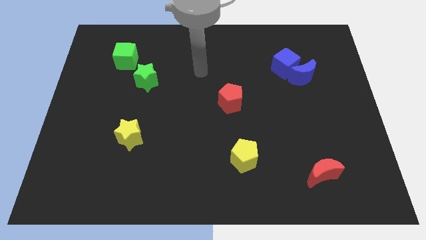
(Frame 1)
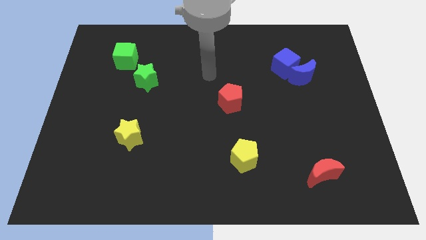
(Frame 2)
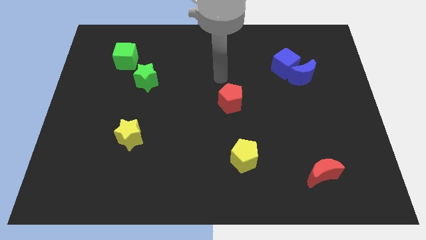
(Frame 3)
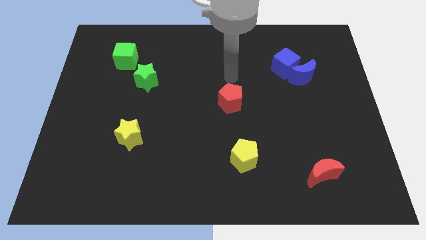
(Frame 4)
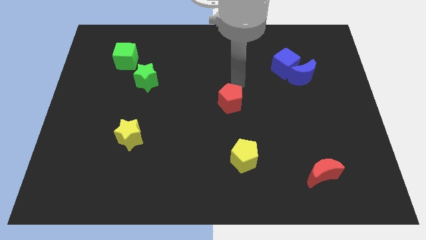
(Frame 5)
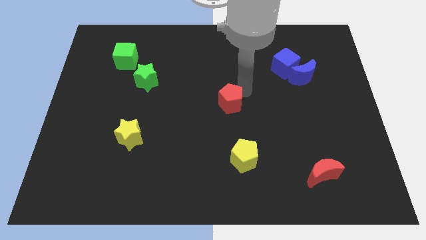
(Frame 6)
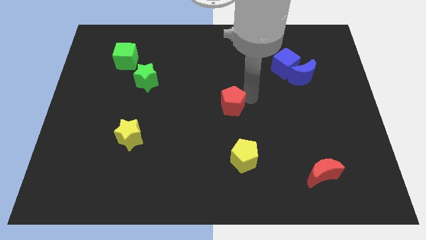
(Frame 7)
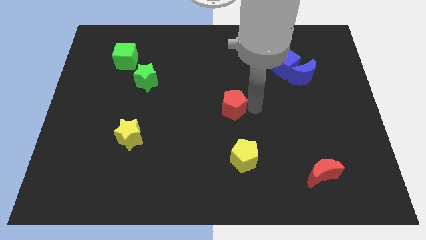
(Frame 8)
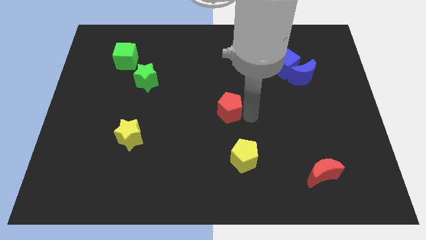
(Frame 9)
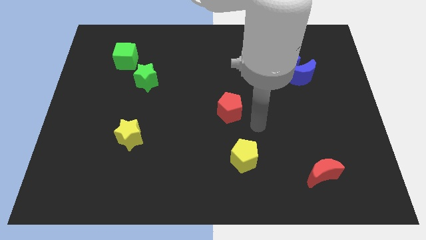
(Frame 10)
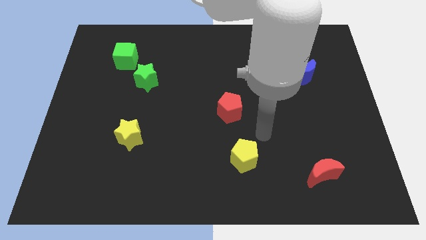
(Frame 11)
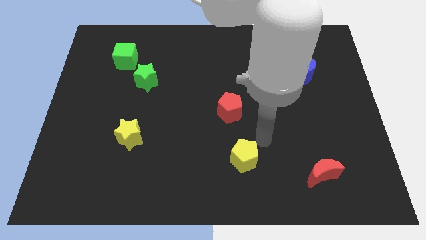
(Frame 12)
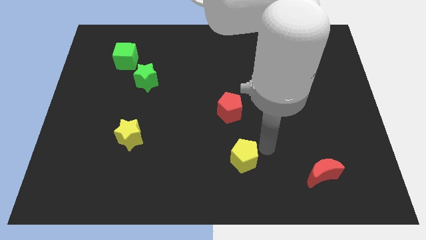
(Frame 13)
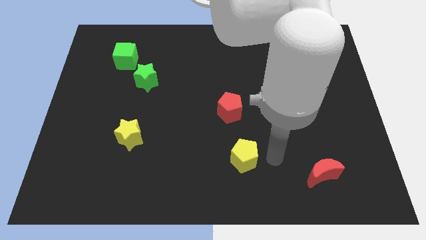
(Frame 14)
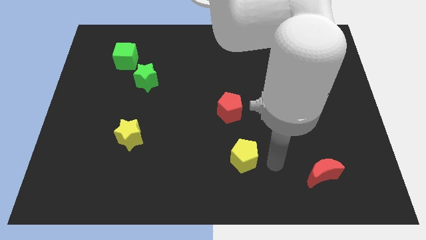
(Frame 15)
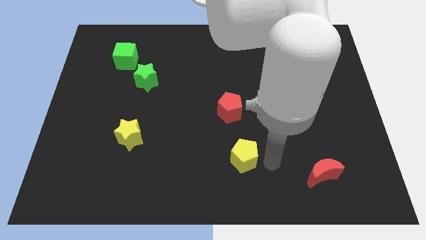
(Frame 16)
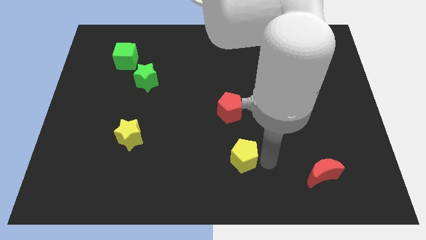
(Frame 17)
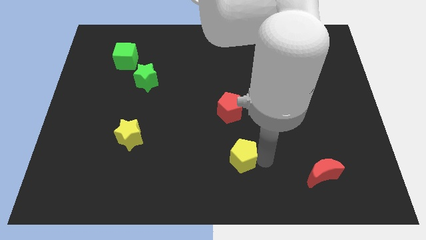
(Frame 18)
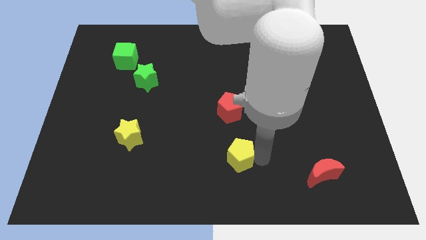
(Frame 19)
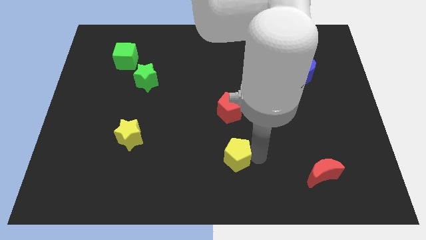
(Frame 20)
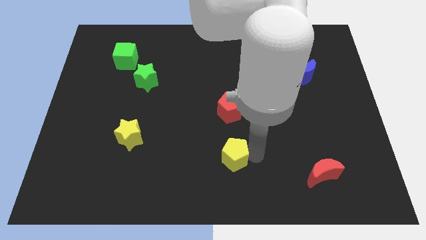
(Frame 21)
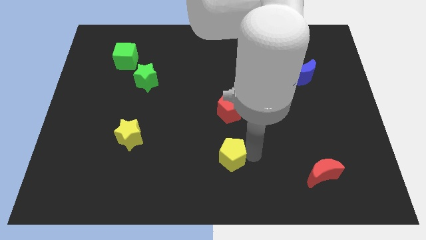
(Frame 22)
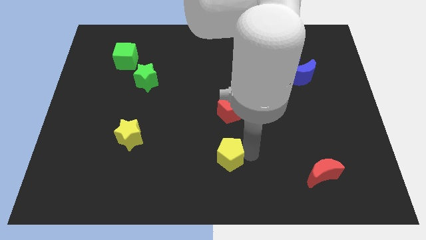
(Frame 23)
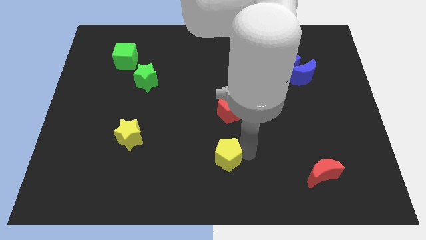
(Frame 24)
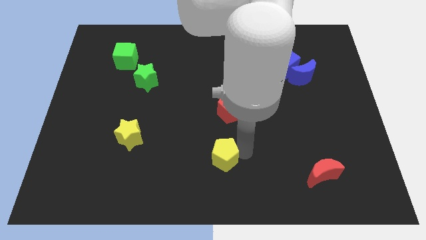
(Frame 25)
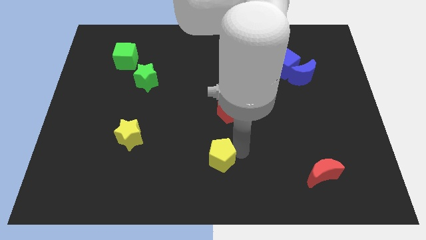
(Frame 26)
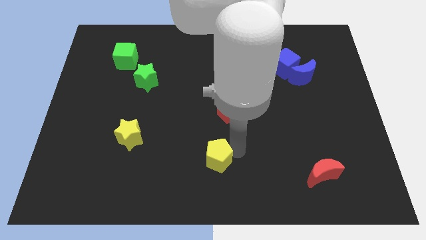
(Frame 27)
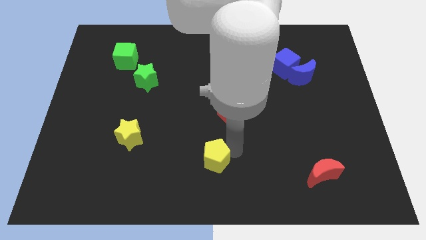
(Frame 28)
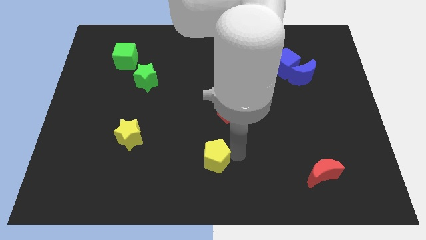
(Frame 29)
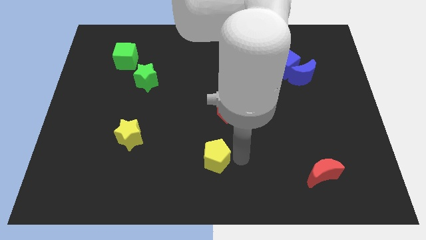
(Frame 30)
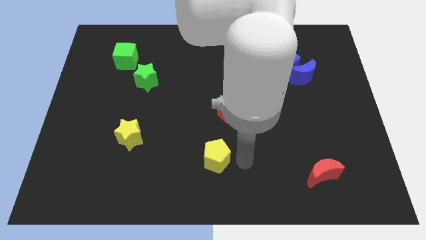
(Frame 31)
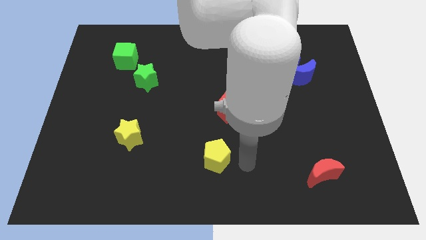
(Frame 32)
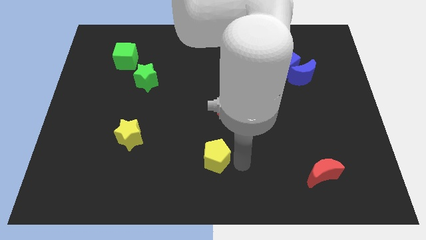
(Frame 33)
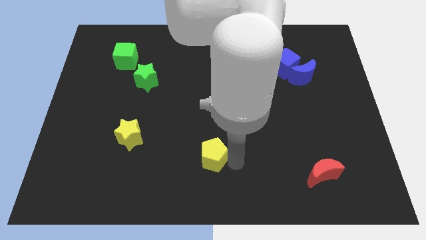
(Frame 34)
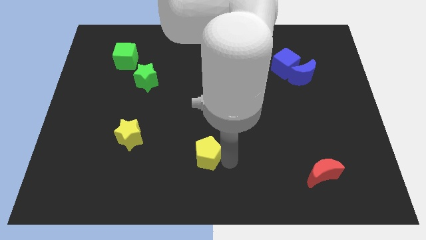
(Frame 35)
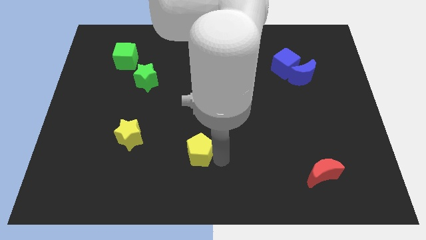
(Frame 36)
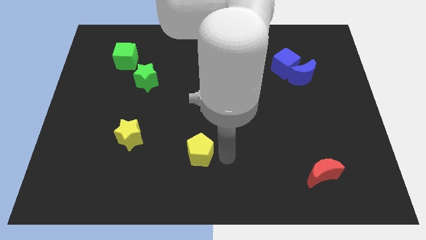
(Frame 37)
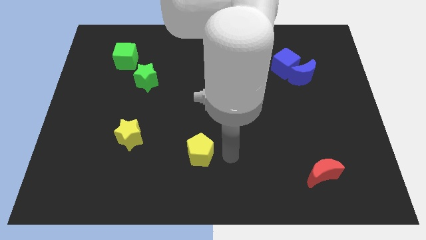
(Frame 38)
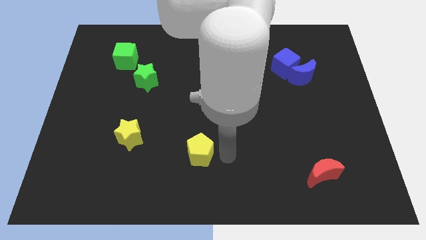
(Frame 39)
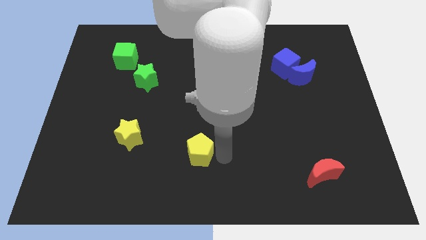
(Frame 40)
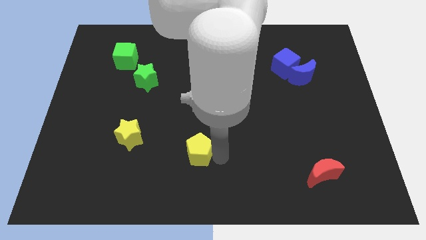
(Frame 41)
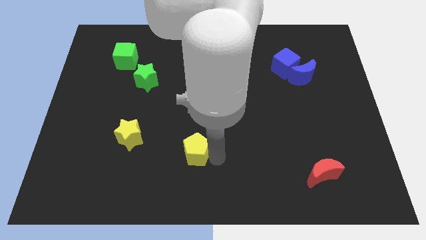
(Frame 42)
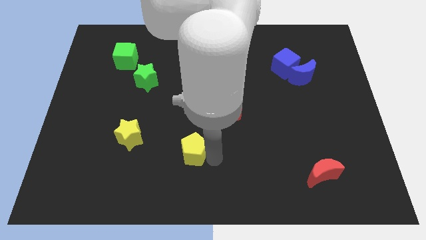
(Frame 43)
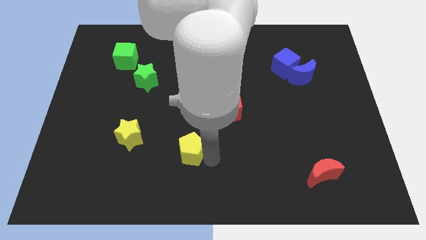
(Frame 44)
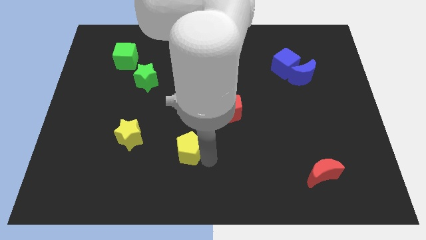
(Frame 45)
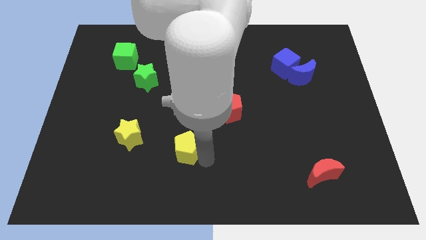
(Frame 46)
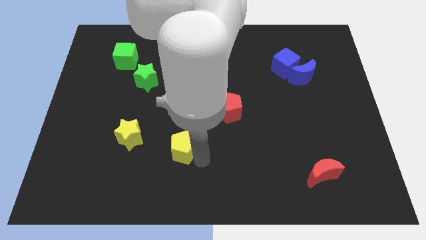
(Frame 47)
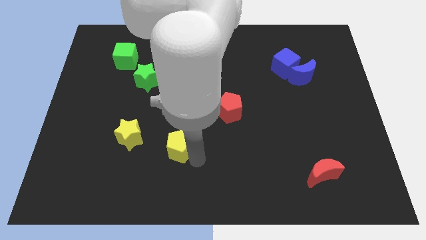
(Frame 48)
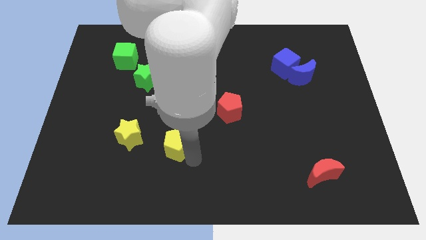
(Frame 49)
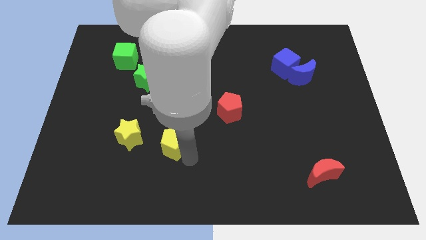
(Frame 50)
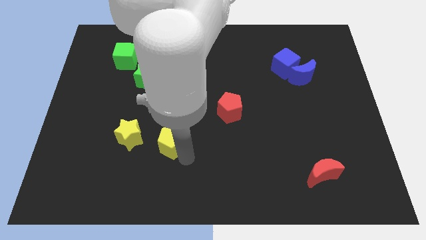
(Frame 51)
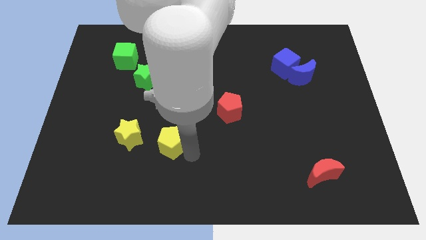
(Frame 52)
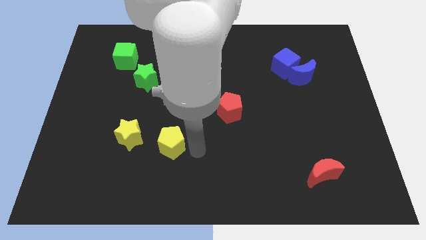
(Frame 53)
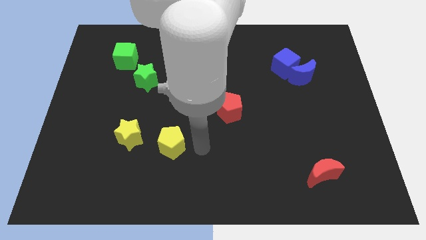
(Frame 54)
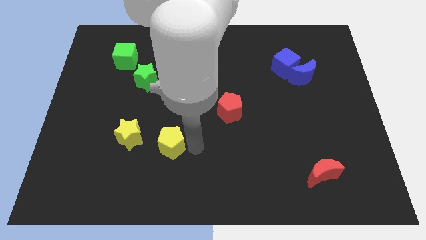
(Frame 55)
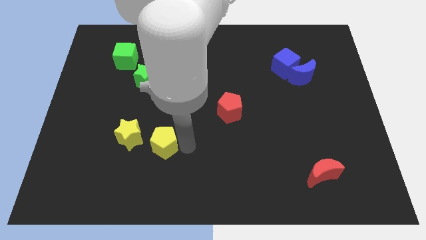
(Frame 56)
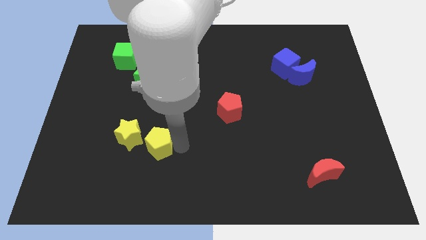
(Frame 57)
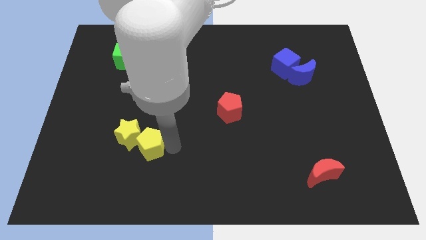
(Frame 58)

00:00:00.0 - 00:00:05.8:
slide the yellow pentagon to the yellow star

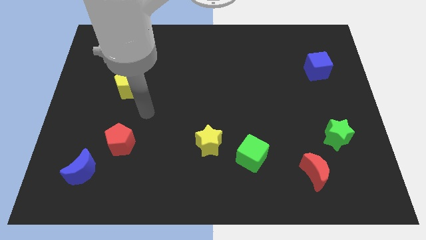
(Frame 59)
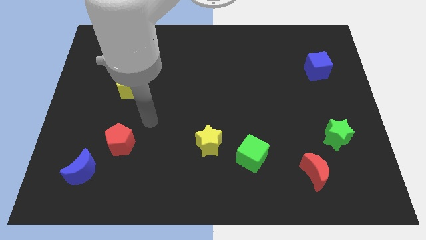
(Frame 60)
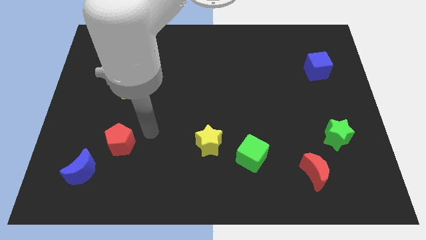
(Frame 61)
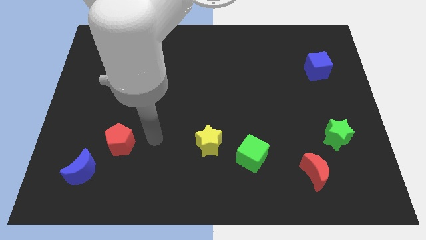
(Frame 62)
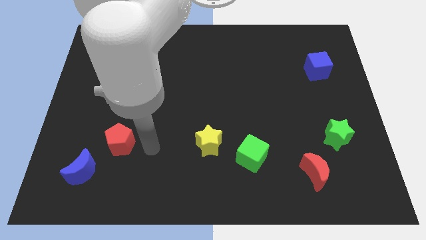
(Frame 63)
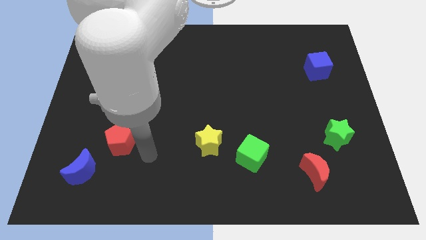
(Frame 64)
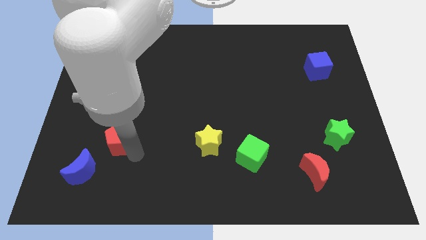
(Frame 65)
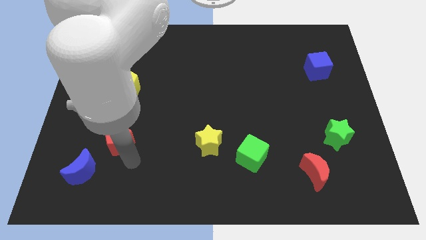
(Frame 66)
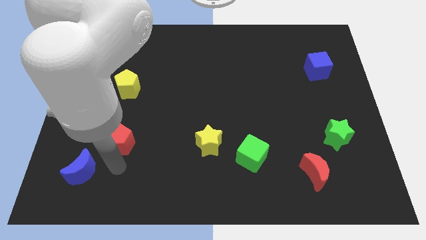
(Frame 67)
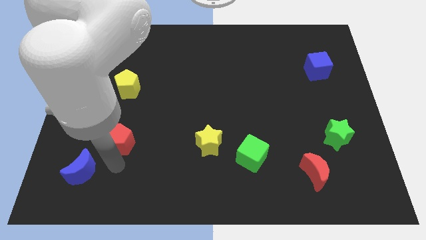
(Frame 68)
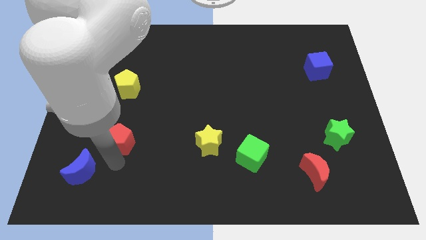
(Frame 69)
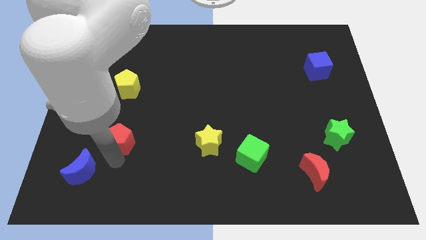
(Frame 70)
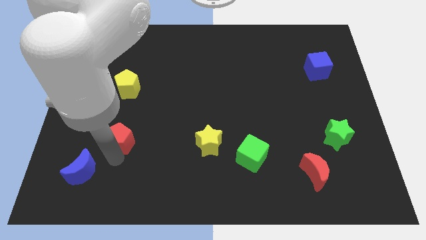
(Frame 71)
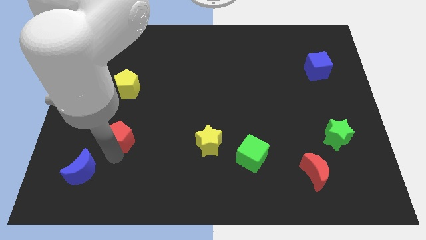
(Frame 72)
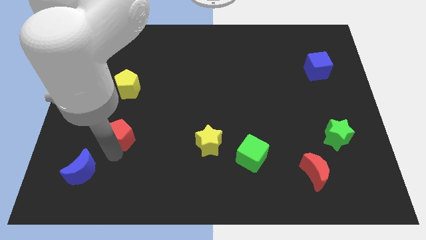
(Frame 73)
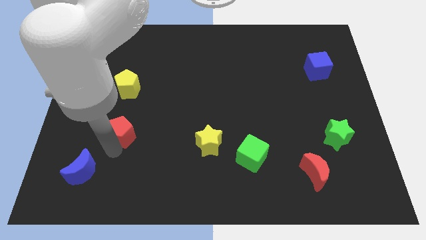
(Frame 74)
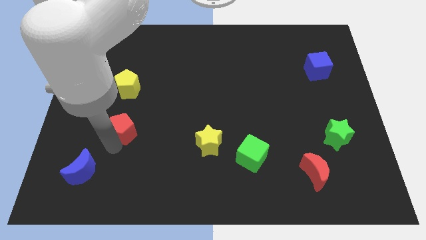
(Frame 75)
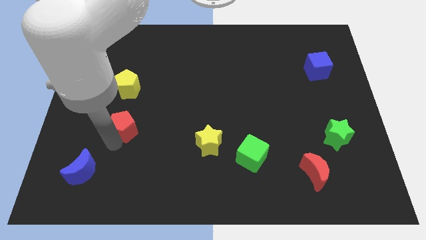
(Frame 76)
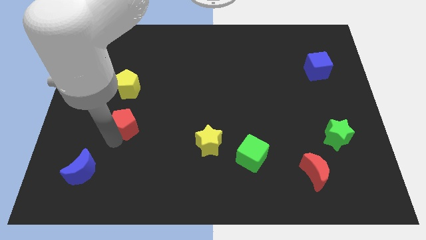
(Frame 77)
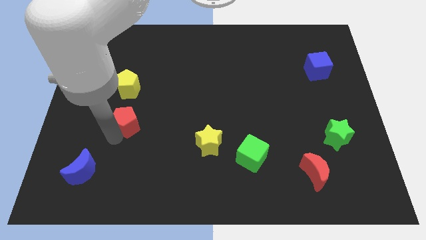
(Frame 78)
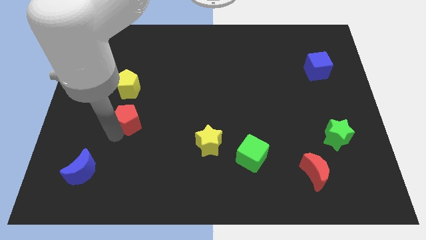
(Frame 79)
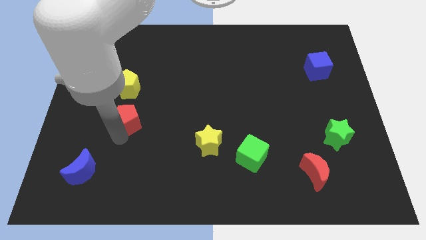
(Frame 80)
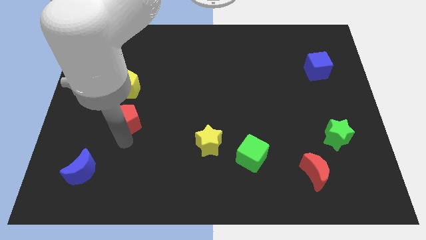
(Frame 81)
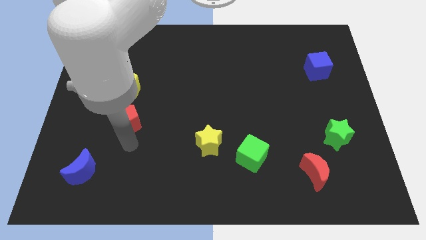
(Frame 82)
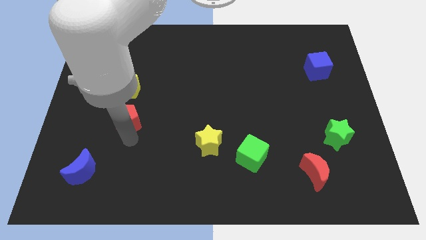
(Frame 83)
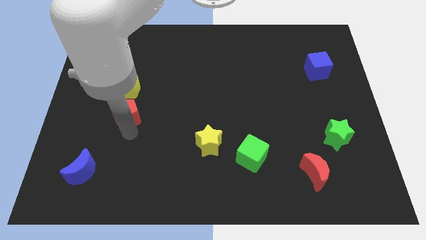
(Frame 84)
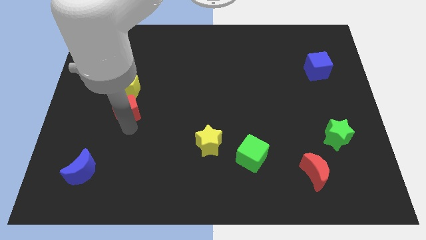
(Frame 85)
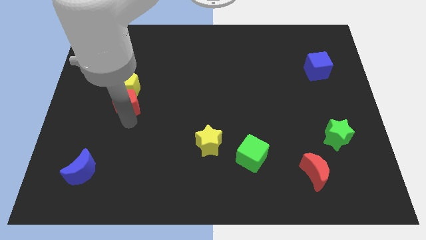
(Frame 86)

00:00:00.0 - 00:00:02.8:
slide the red pentagon next to the yellow pentagon
